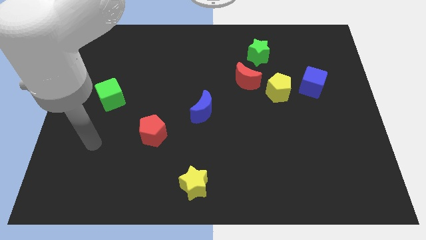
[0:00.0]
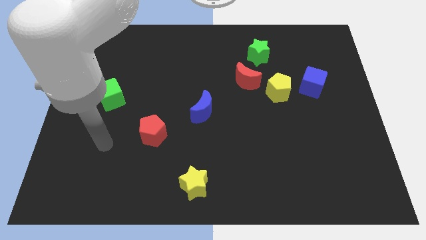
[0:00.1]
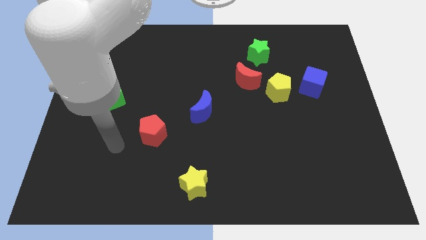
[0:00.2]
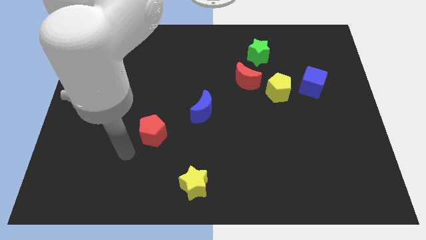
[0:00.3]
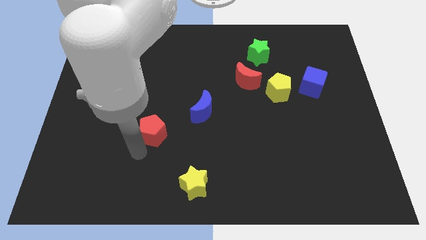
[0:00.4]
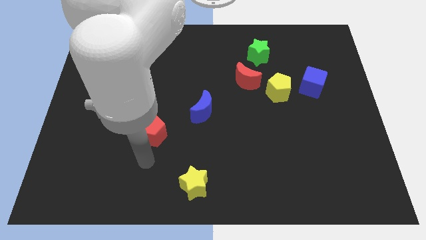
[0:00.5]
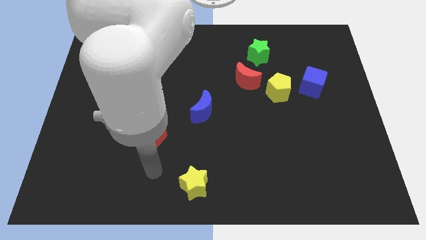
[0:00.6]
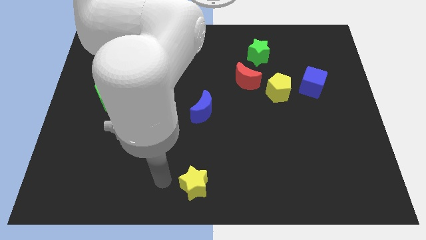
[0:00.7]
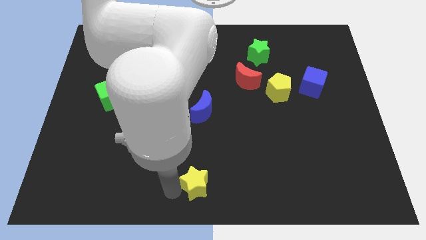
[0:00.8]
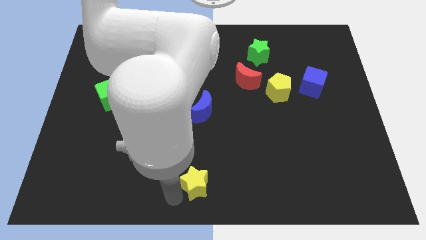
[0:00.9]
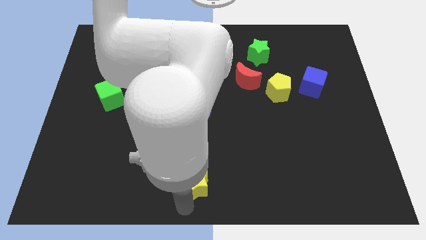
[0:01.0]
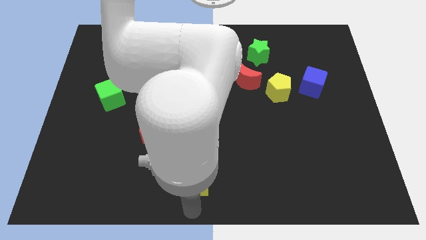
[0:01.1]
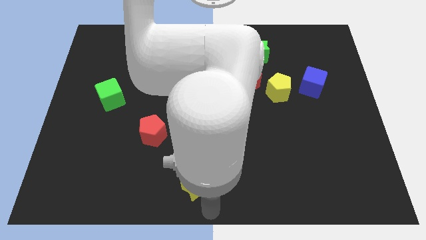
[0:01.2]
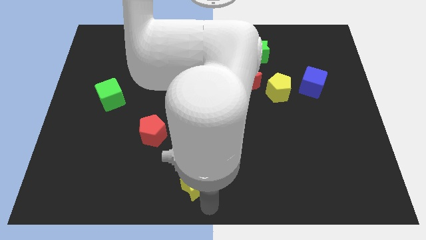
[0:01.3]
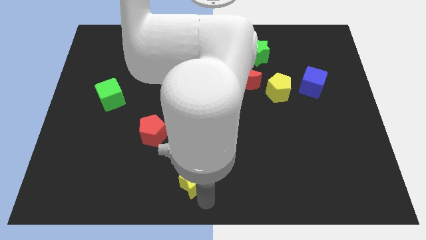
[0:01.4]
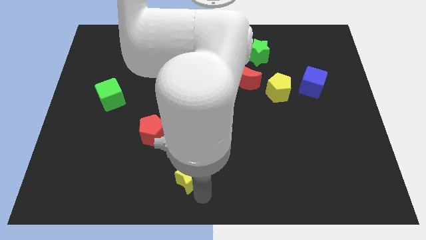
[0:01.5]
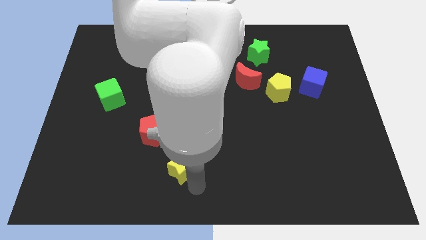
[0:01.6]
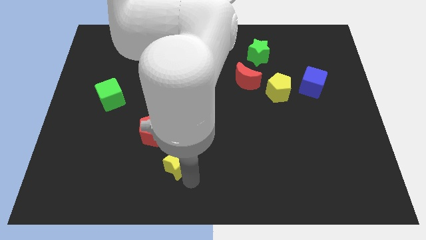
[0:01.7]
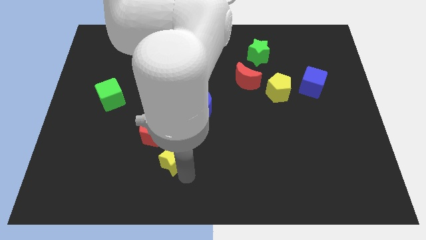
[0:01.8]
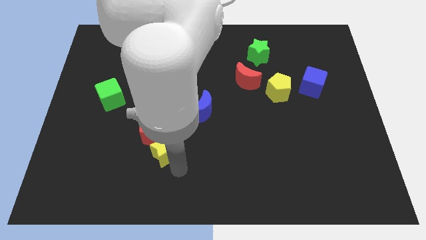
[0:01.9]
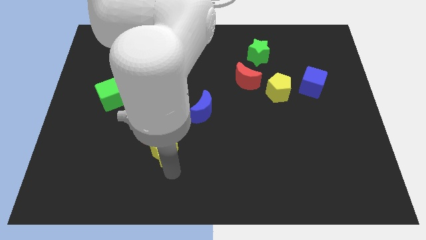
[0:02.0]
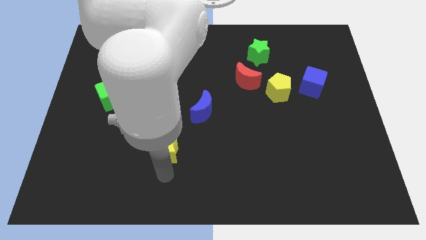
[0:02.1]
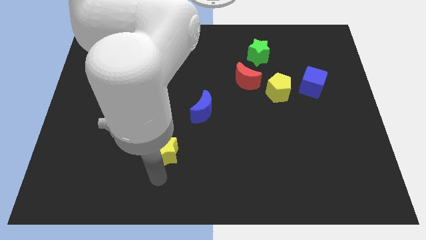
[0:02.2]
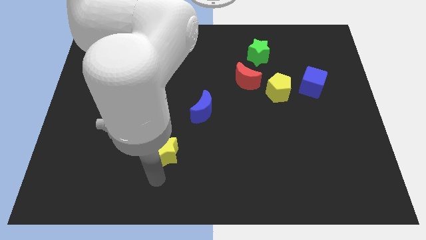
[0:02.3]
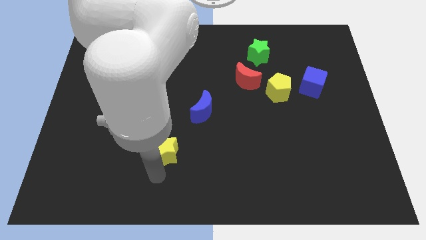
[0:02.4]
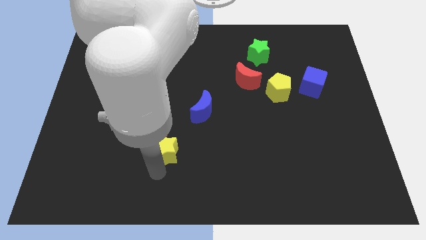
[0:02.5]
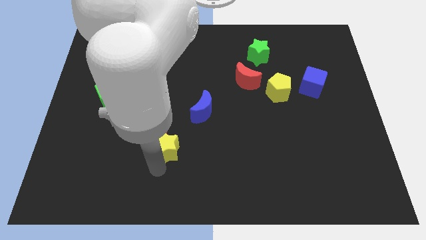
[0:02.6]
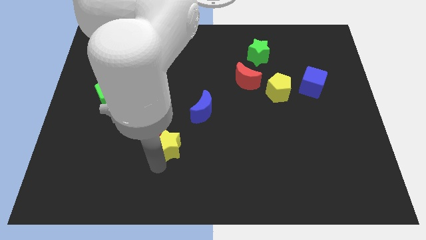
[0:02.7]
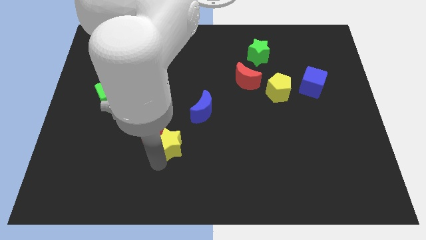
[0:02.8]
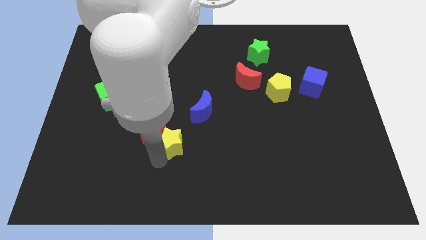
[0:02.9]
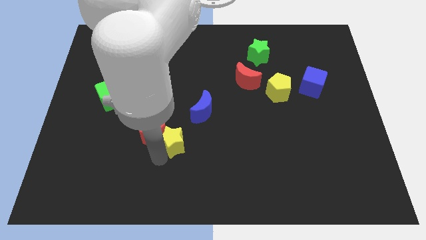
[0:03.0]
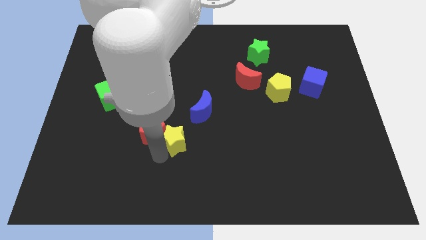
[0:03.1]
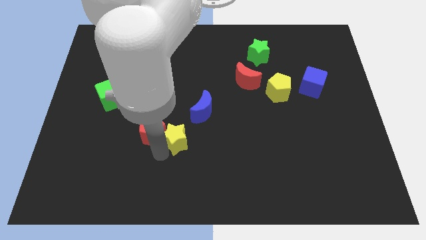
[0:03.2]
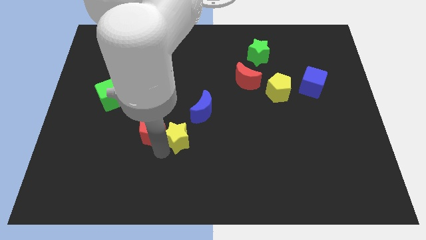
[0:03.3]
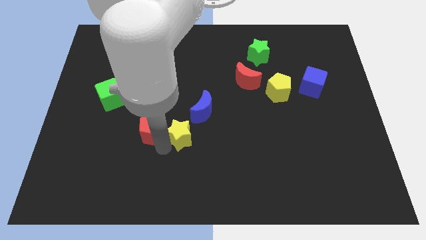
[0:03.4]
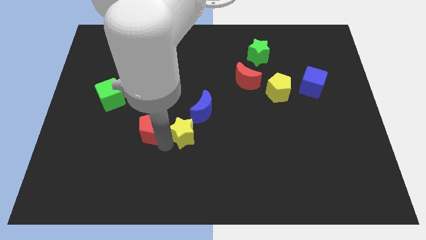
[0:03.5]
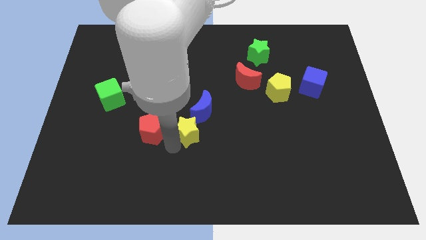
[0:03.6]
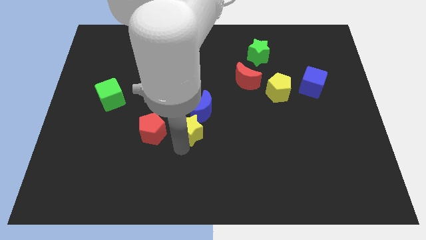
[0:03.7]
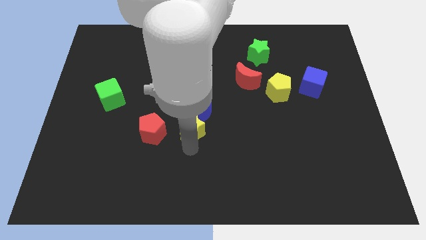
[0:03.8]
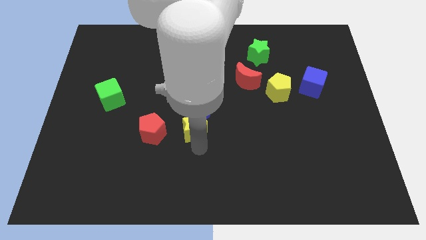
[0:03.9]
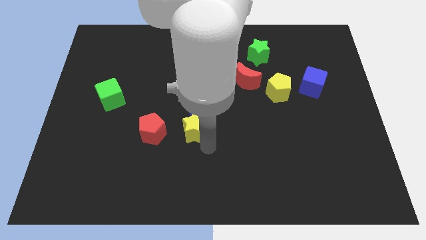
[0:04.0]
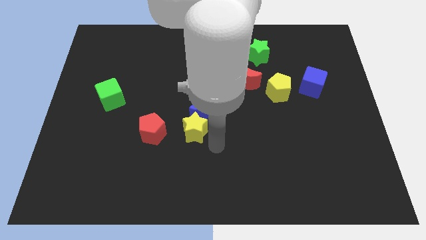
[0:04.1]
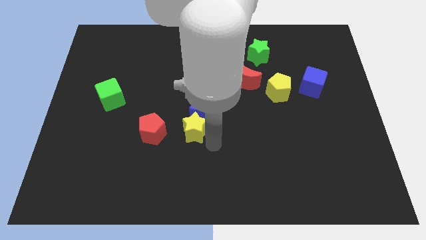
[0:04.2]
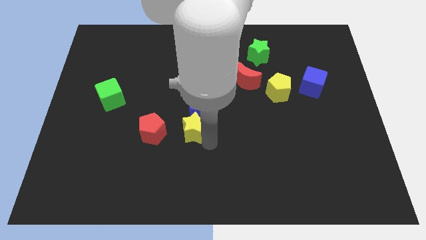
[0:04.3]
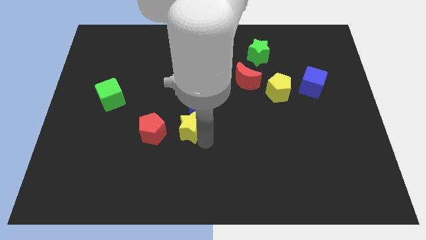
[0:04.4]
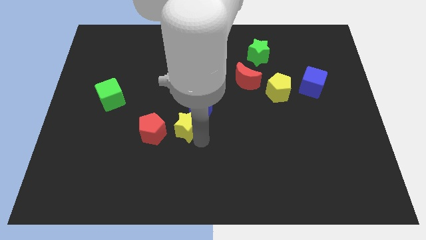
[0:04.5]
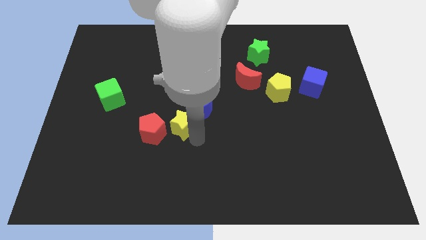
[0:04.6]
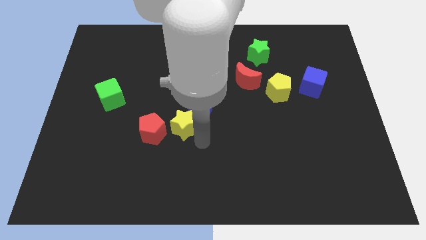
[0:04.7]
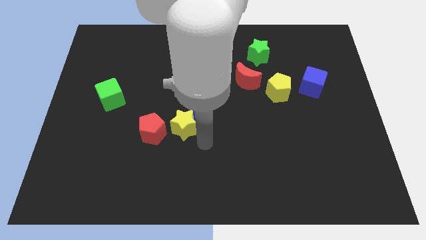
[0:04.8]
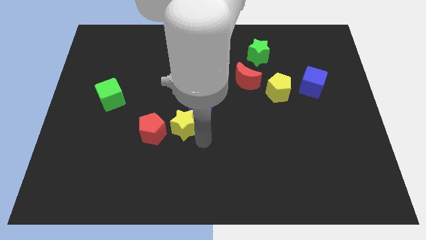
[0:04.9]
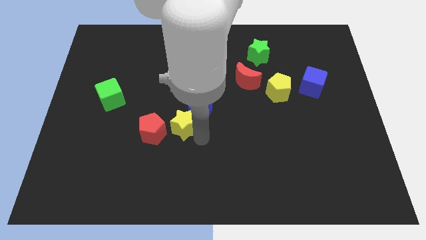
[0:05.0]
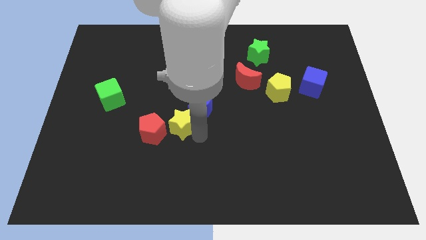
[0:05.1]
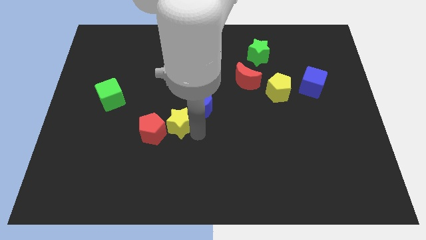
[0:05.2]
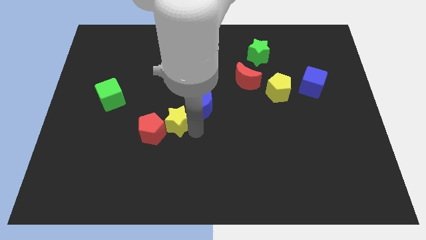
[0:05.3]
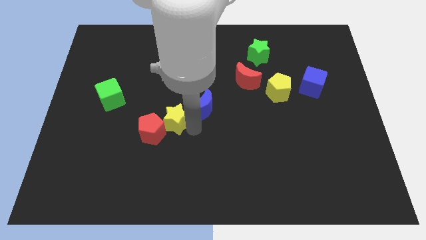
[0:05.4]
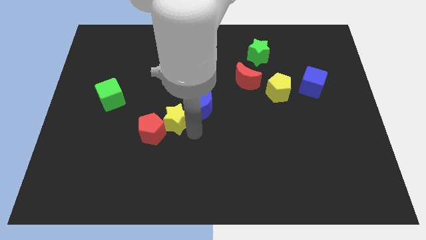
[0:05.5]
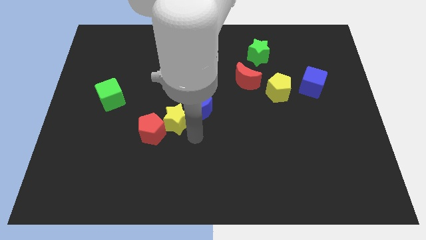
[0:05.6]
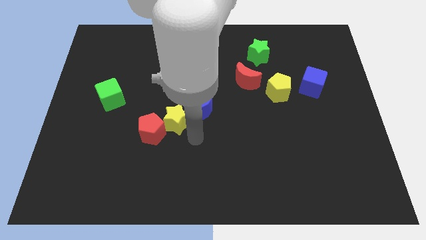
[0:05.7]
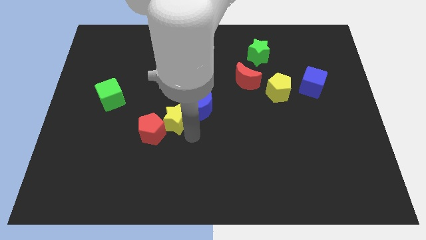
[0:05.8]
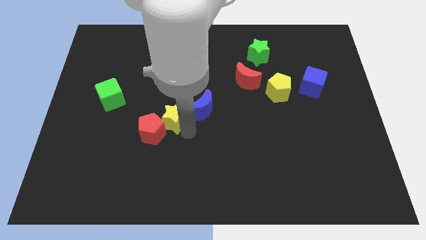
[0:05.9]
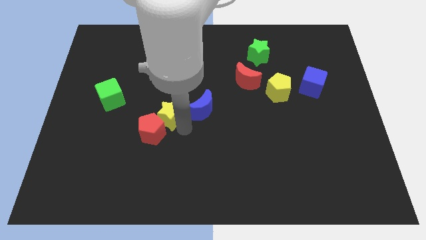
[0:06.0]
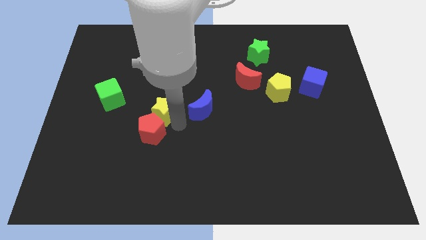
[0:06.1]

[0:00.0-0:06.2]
move the yellow star right of the green cube

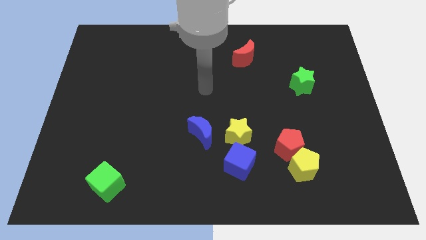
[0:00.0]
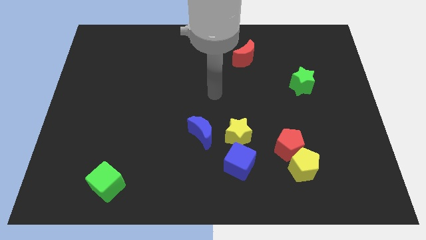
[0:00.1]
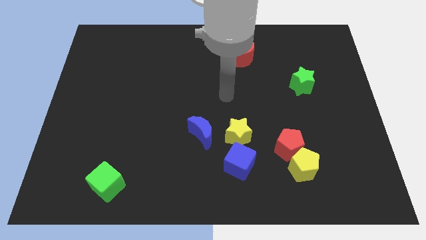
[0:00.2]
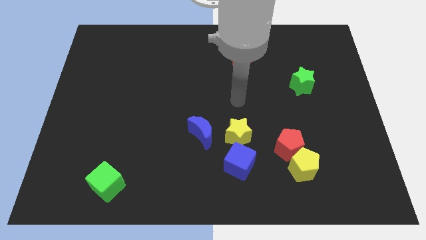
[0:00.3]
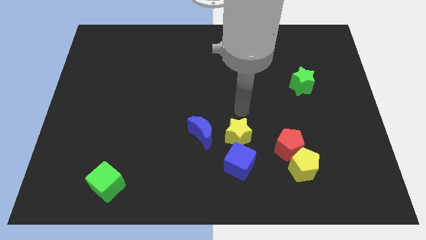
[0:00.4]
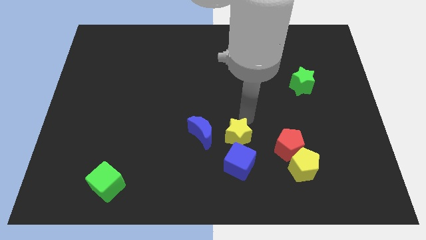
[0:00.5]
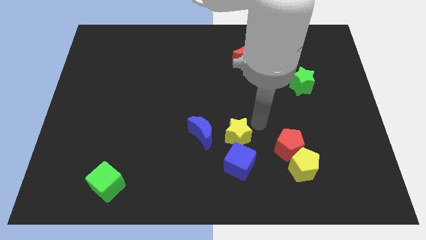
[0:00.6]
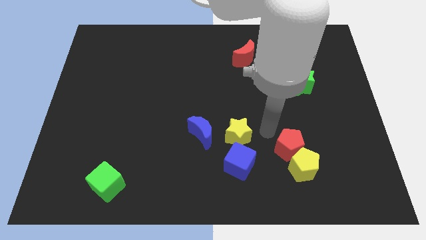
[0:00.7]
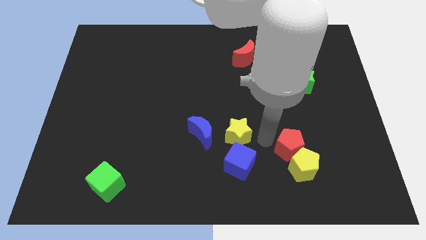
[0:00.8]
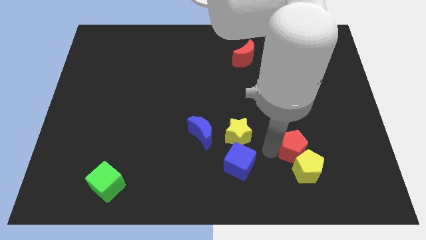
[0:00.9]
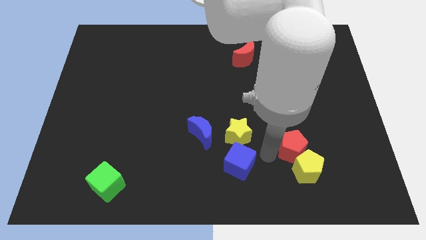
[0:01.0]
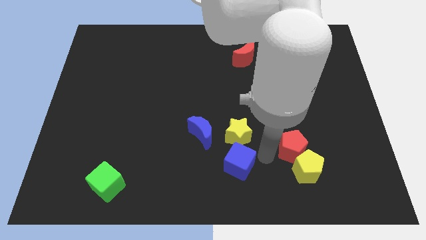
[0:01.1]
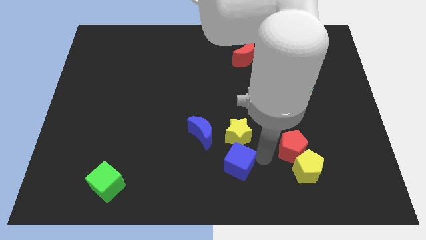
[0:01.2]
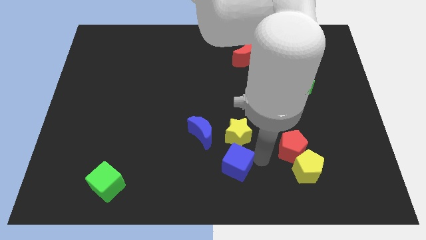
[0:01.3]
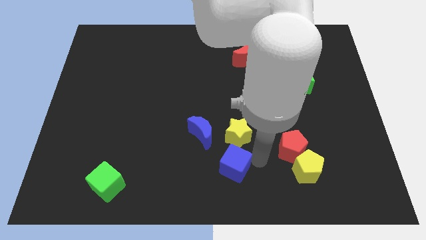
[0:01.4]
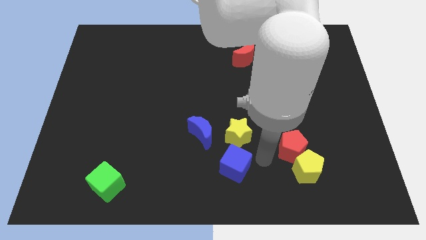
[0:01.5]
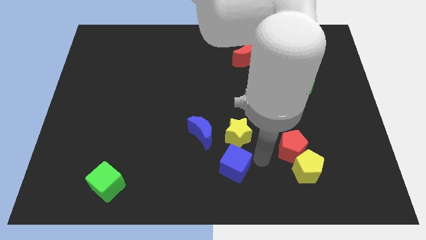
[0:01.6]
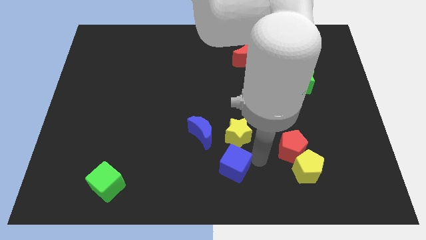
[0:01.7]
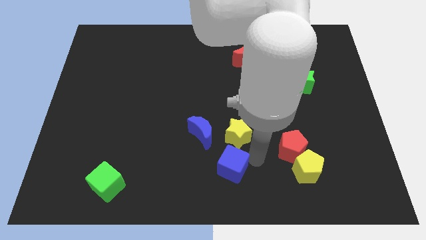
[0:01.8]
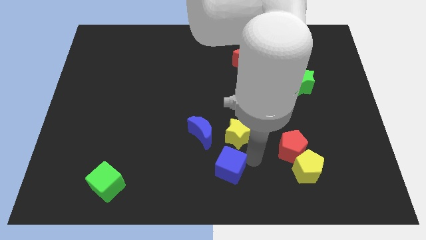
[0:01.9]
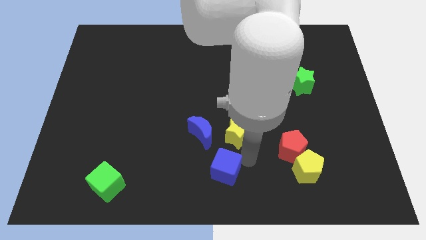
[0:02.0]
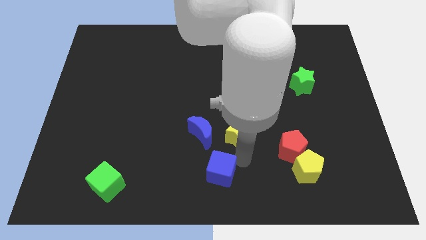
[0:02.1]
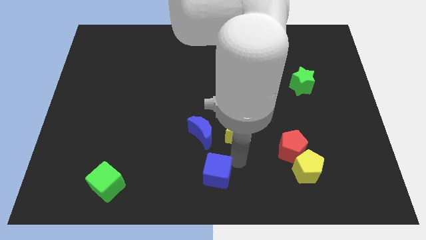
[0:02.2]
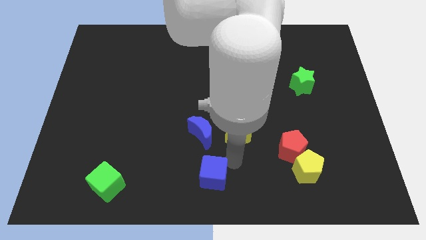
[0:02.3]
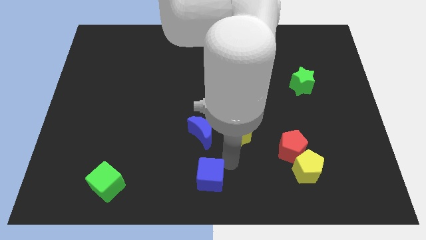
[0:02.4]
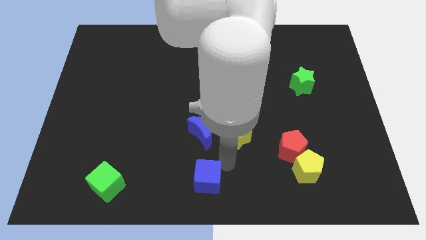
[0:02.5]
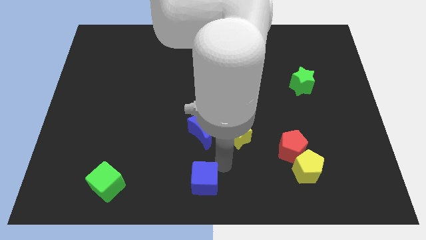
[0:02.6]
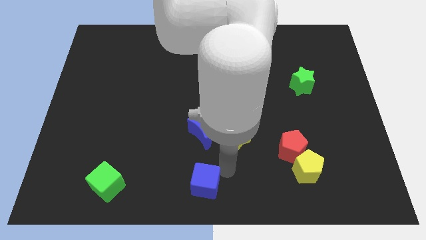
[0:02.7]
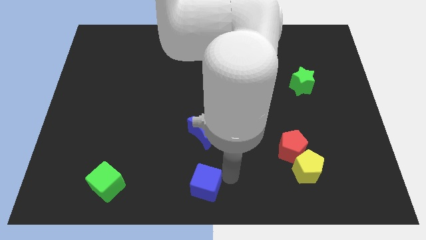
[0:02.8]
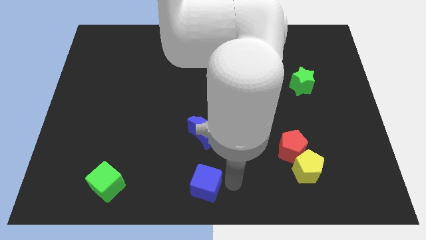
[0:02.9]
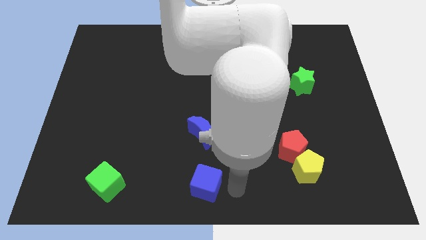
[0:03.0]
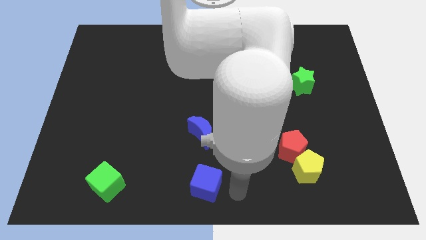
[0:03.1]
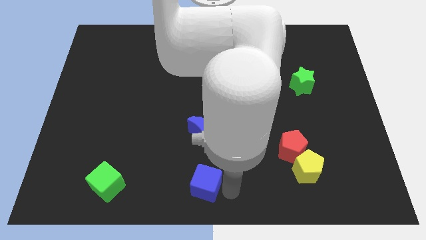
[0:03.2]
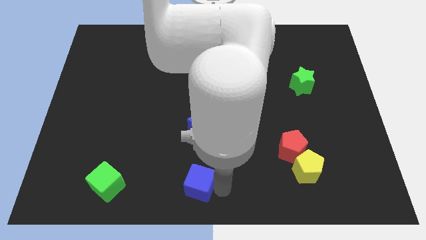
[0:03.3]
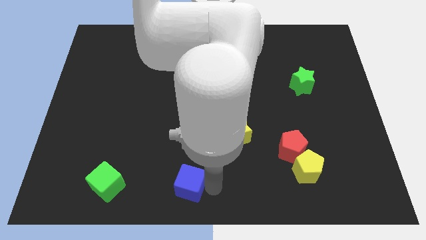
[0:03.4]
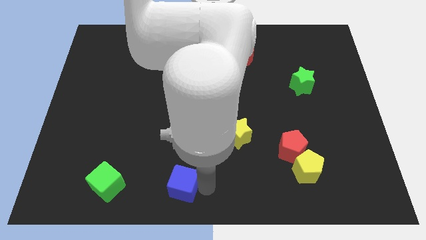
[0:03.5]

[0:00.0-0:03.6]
put the blue cube to the right of the green cube
